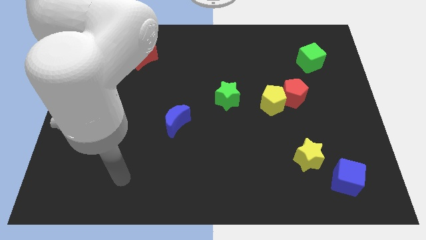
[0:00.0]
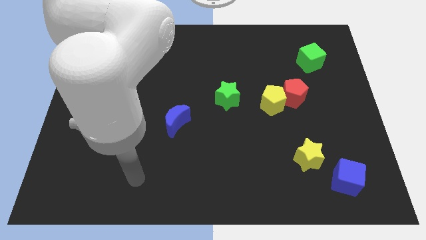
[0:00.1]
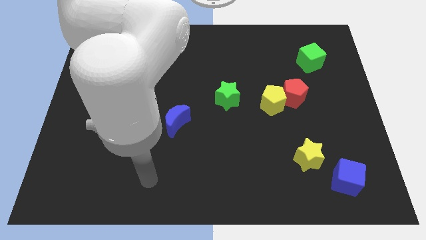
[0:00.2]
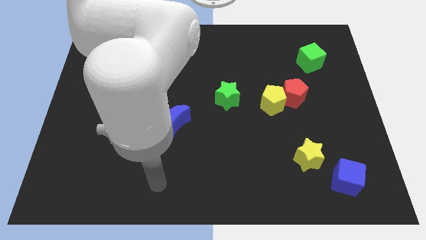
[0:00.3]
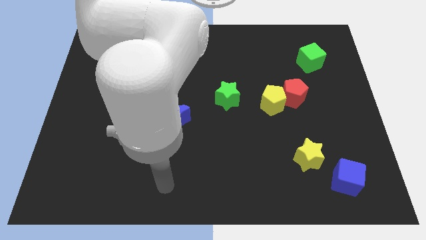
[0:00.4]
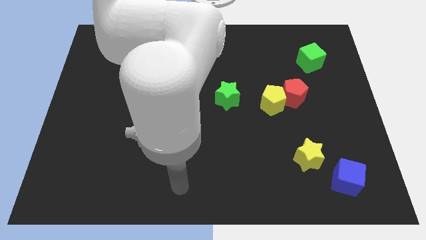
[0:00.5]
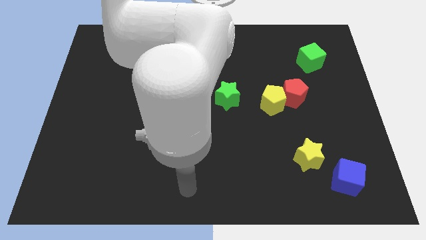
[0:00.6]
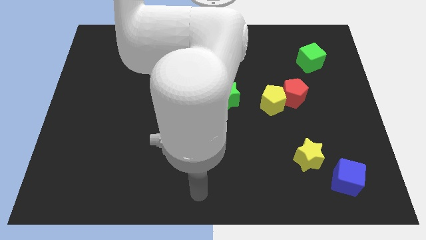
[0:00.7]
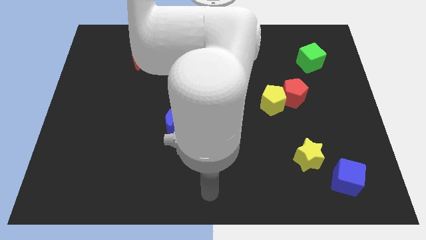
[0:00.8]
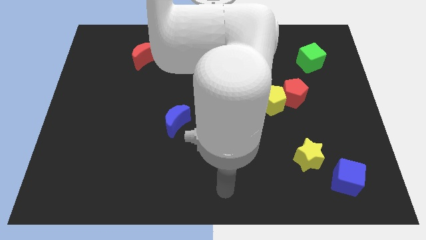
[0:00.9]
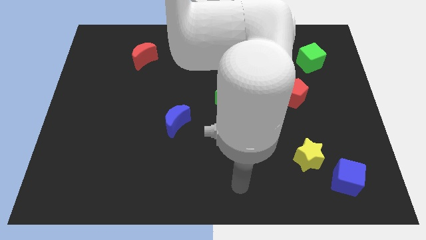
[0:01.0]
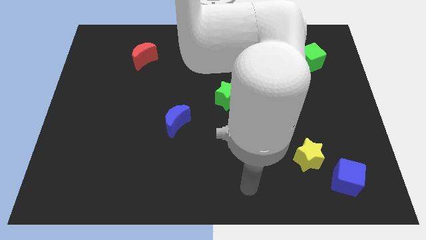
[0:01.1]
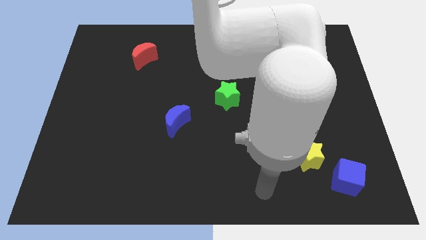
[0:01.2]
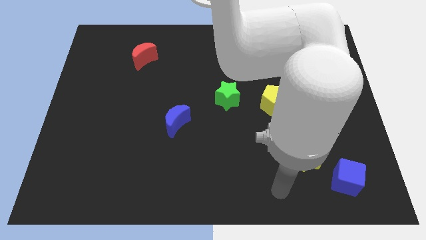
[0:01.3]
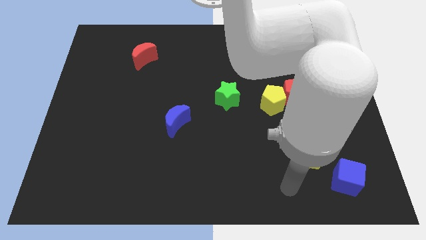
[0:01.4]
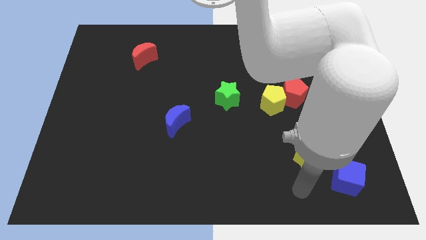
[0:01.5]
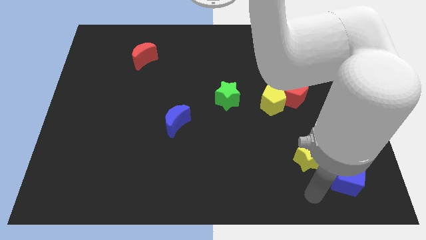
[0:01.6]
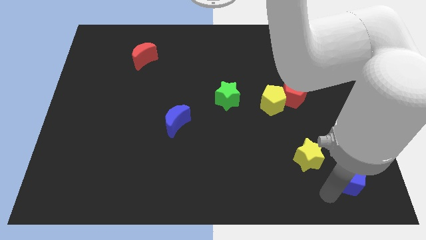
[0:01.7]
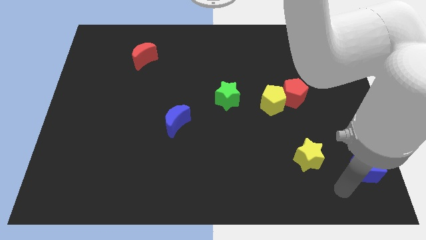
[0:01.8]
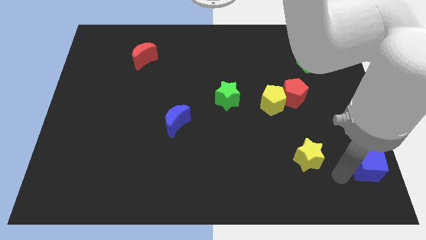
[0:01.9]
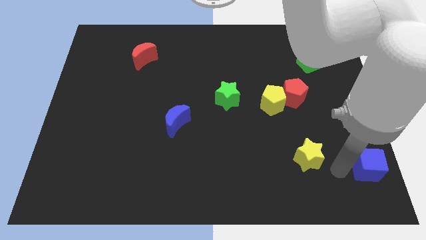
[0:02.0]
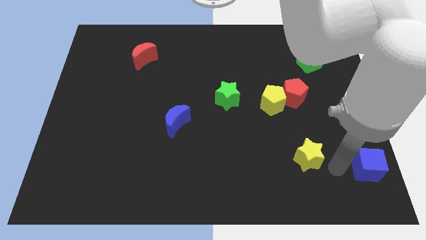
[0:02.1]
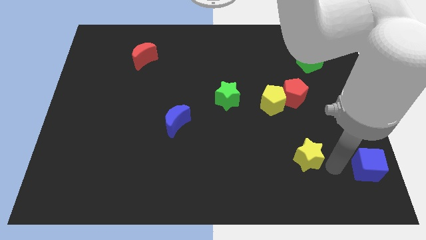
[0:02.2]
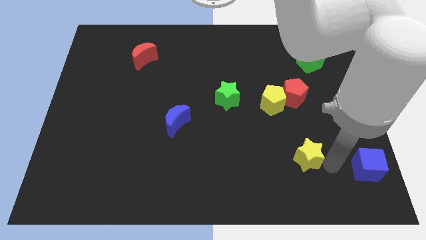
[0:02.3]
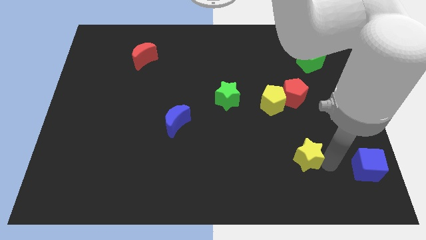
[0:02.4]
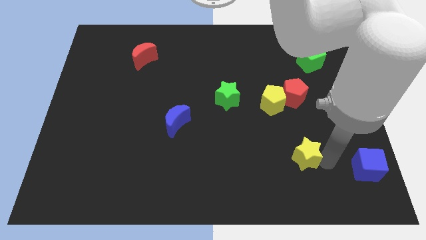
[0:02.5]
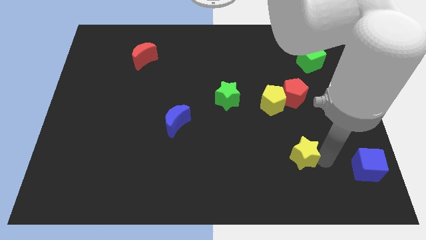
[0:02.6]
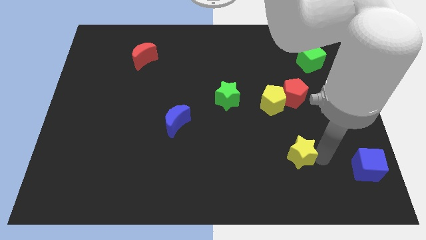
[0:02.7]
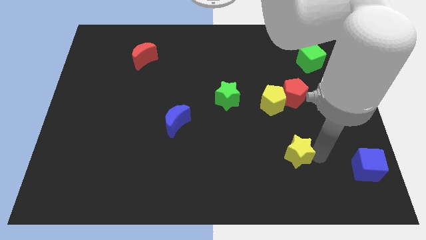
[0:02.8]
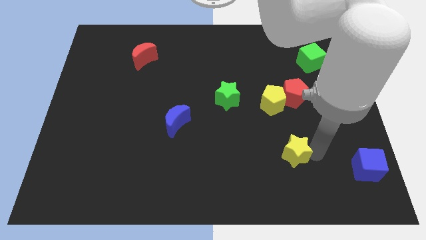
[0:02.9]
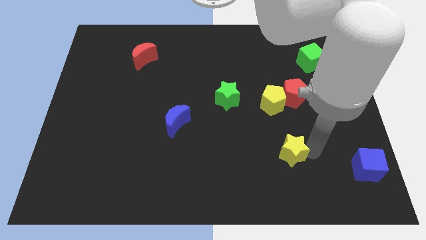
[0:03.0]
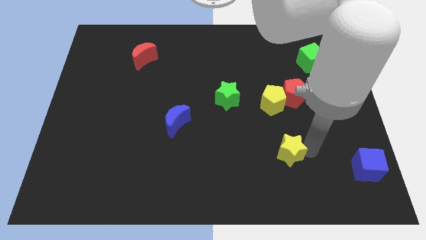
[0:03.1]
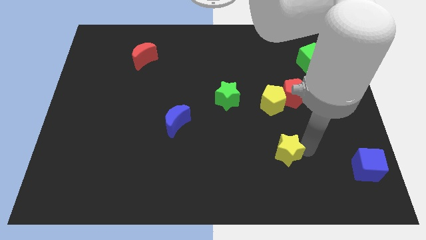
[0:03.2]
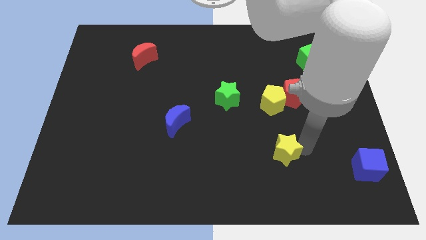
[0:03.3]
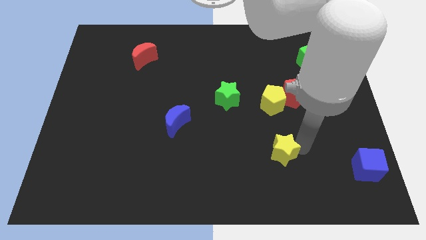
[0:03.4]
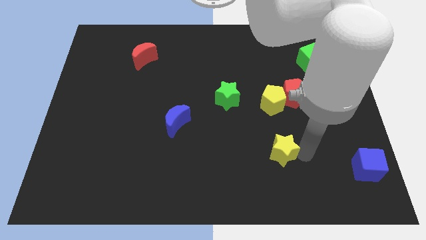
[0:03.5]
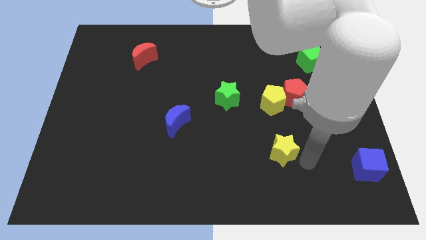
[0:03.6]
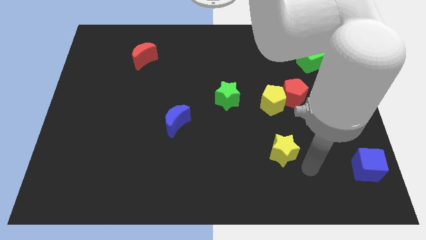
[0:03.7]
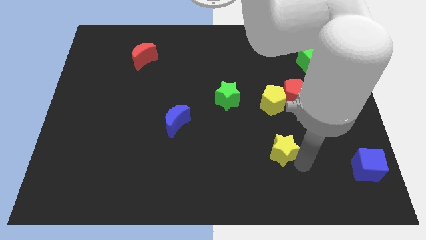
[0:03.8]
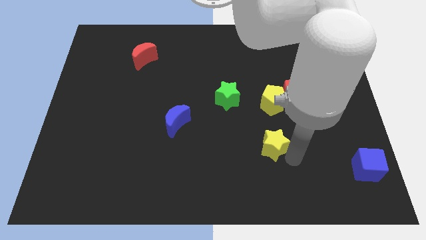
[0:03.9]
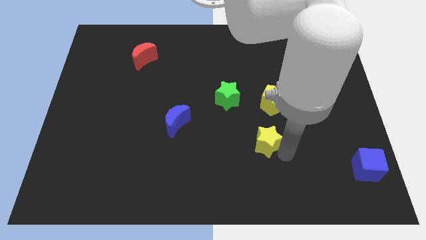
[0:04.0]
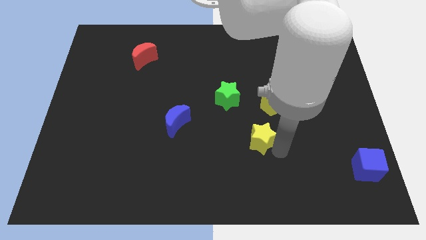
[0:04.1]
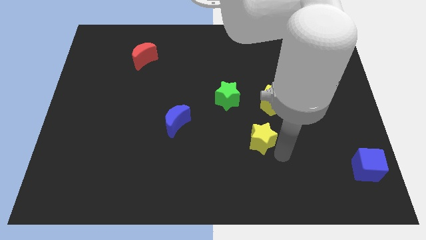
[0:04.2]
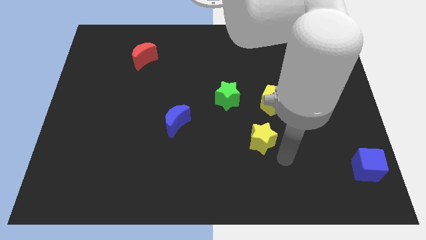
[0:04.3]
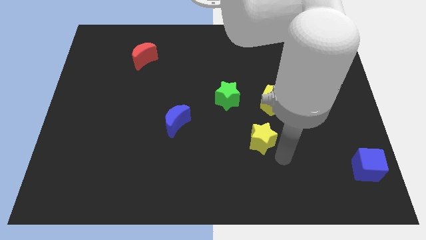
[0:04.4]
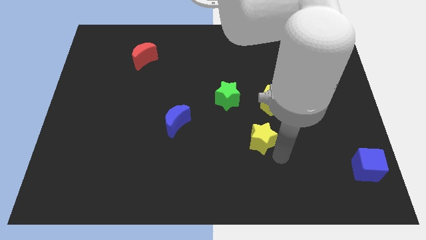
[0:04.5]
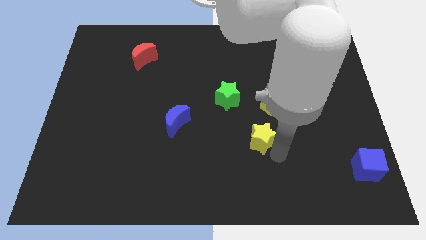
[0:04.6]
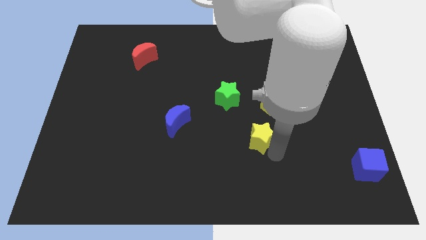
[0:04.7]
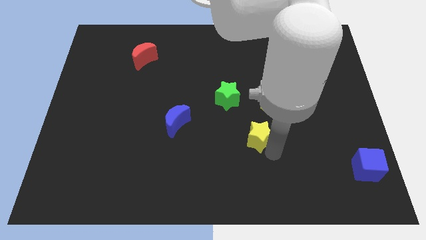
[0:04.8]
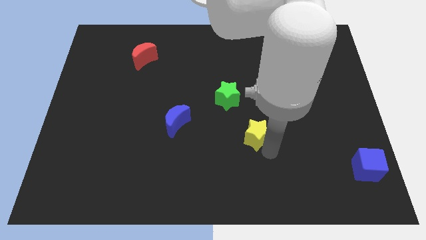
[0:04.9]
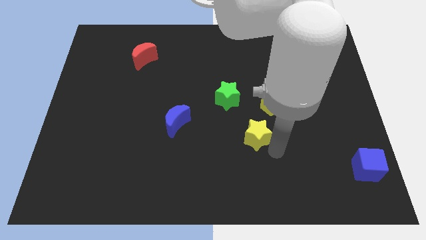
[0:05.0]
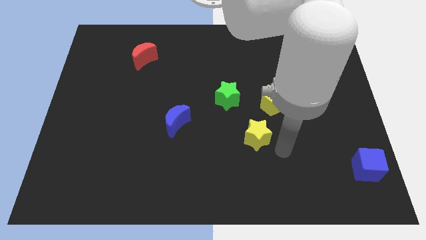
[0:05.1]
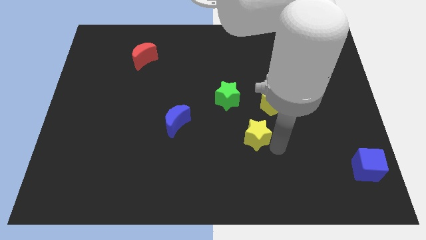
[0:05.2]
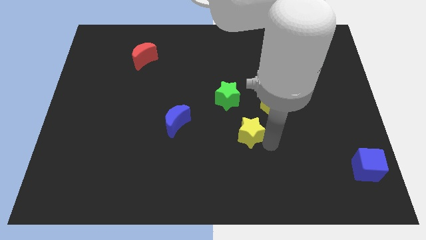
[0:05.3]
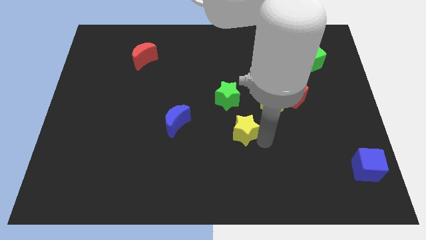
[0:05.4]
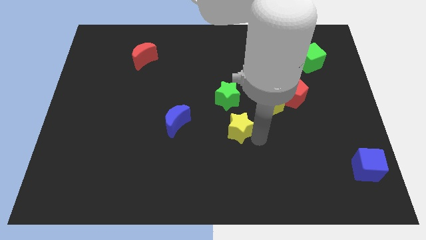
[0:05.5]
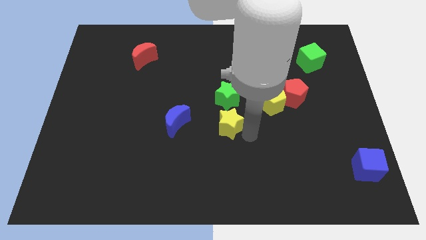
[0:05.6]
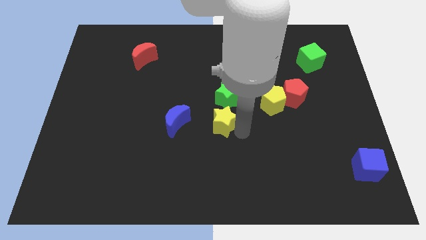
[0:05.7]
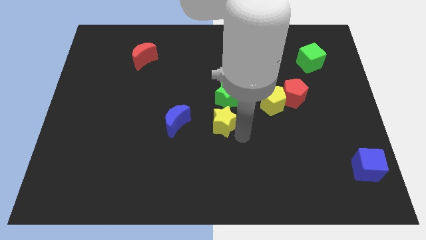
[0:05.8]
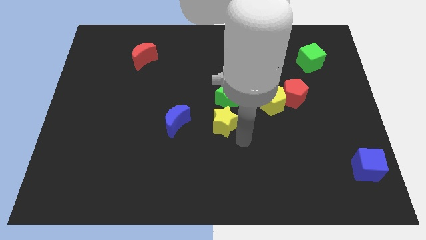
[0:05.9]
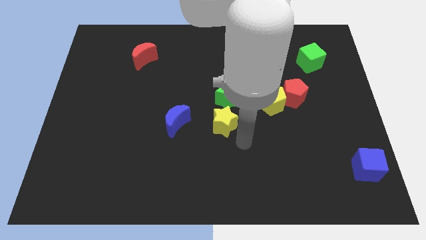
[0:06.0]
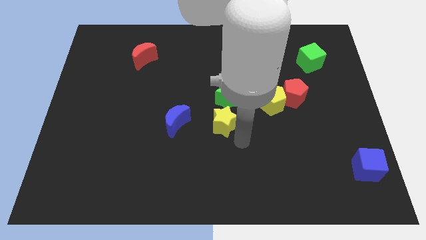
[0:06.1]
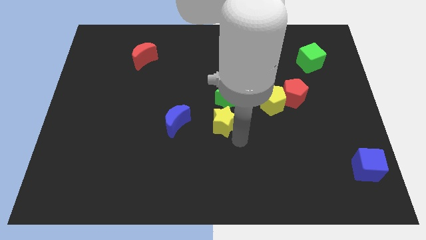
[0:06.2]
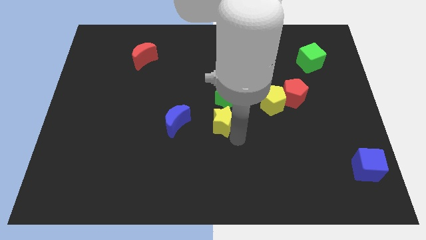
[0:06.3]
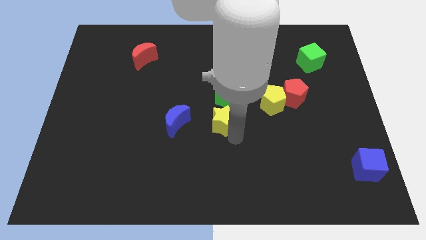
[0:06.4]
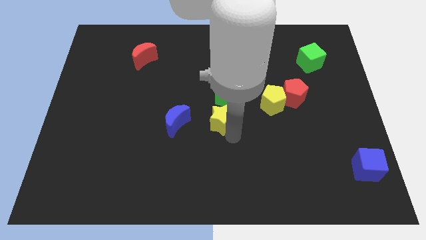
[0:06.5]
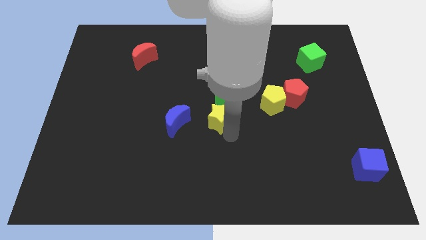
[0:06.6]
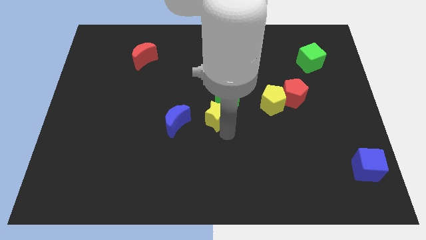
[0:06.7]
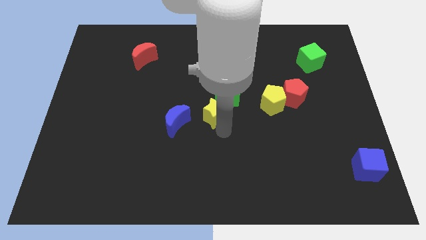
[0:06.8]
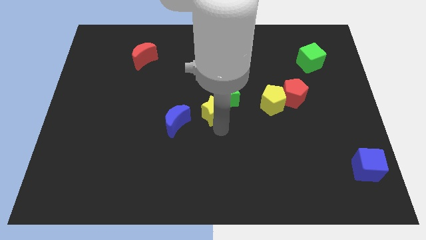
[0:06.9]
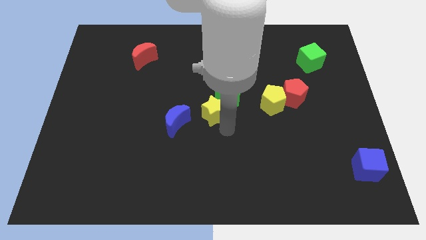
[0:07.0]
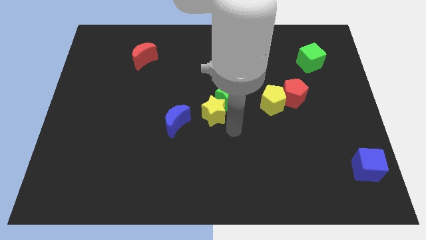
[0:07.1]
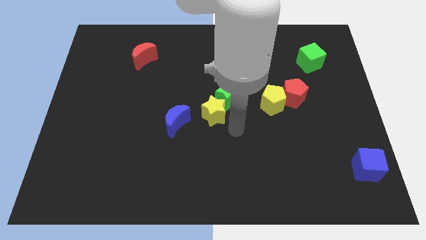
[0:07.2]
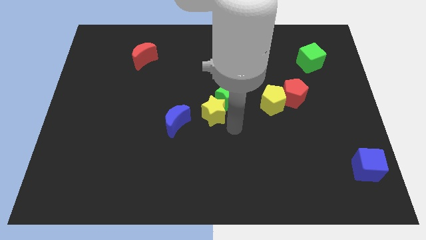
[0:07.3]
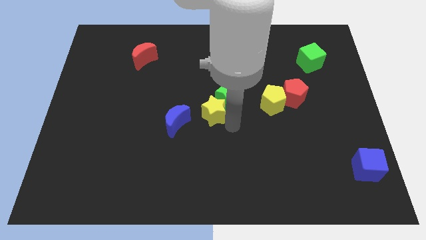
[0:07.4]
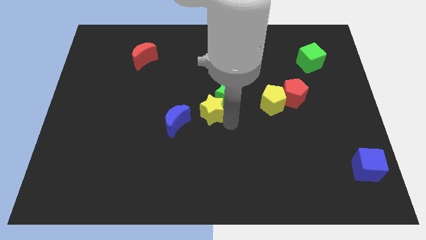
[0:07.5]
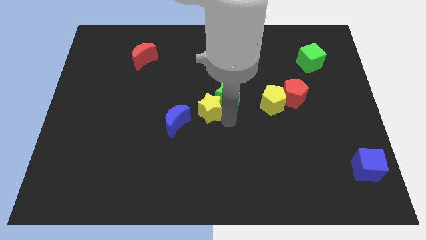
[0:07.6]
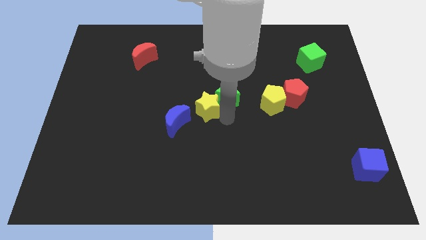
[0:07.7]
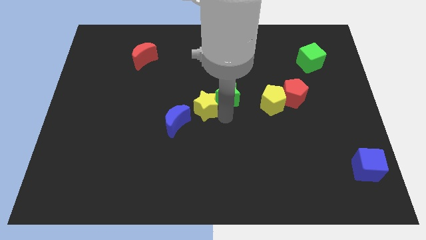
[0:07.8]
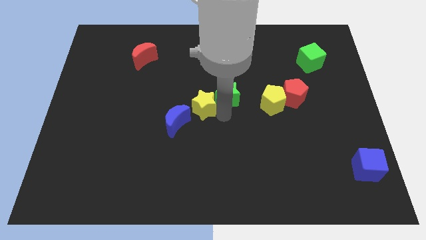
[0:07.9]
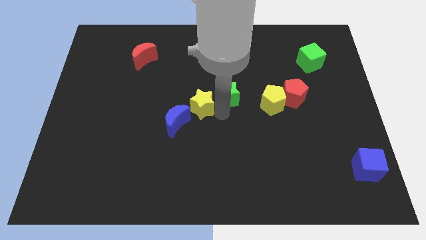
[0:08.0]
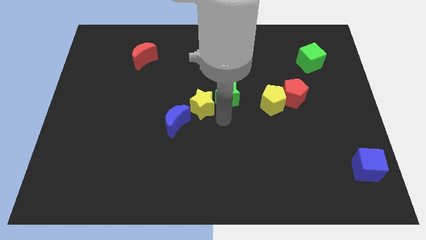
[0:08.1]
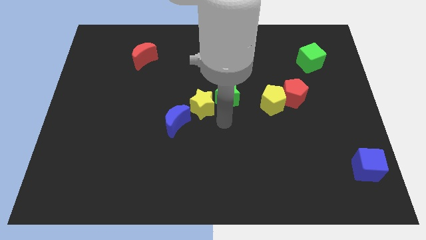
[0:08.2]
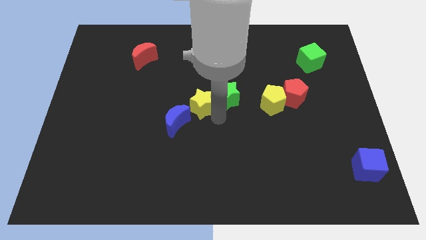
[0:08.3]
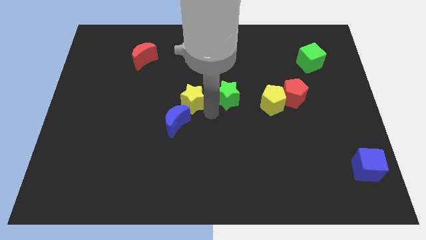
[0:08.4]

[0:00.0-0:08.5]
put the yellow star above the blue moon
